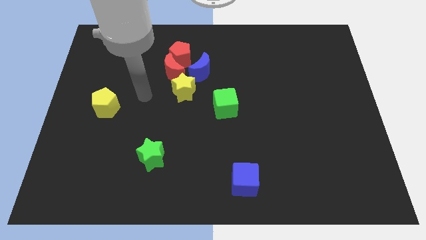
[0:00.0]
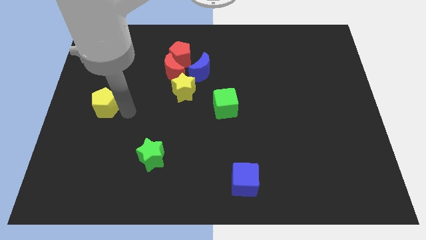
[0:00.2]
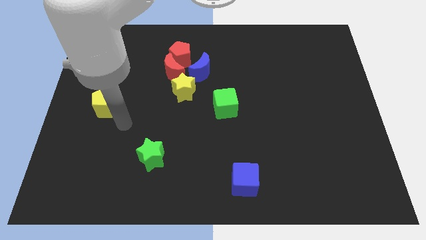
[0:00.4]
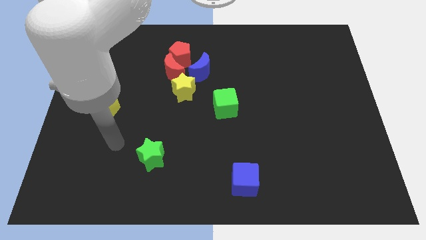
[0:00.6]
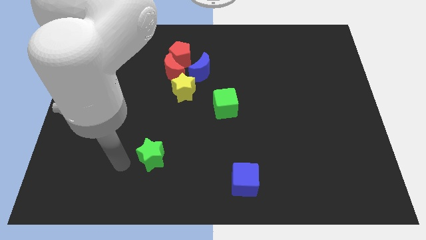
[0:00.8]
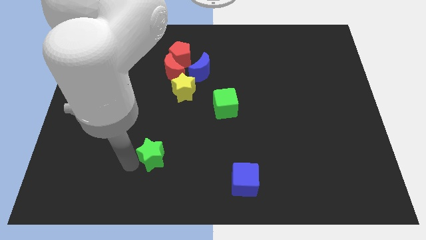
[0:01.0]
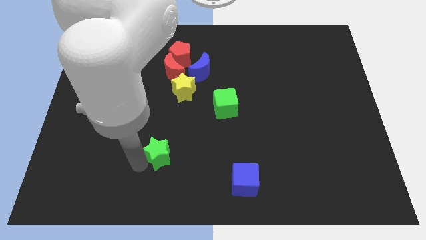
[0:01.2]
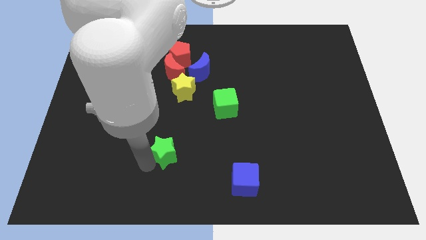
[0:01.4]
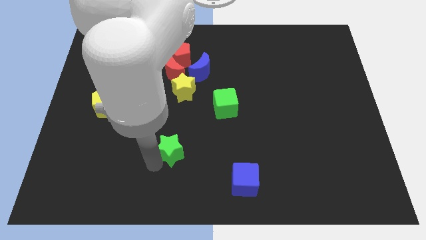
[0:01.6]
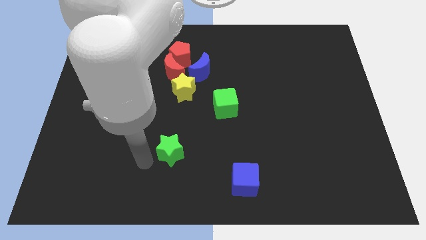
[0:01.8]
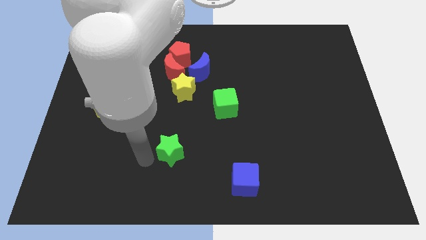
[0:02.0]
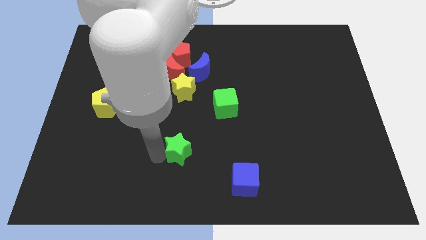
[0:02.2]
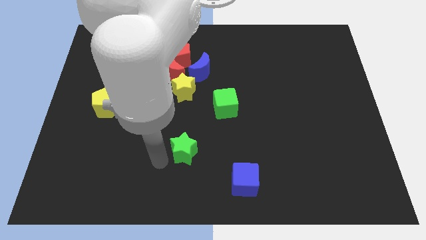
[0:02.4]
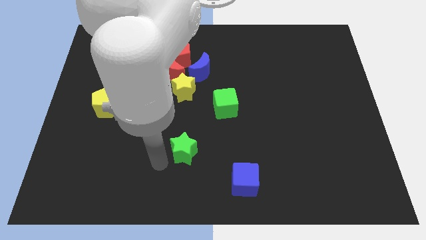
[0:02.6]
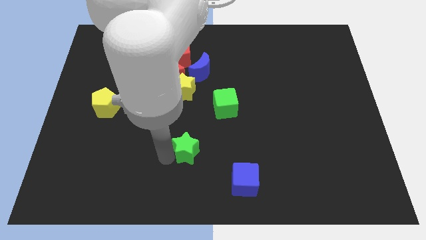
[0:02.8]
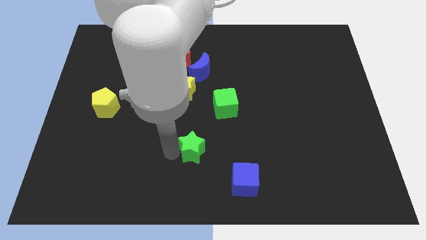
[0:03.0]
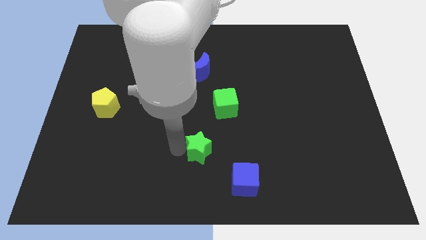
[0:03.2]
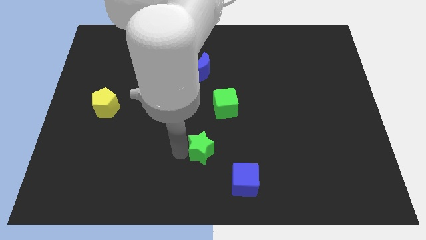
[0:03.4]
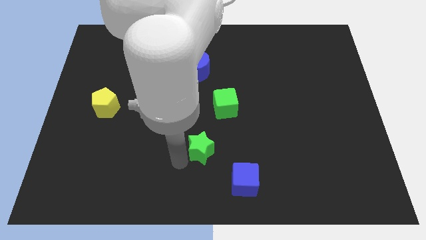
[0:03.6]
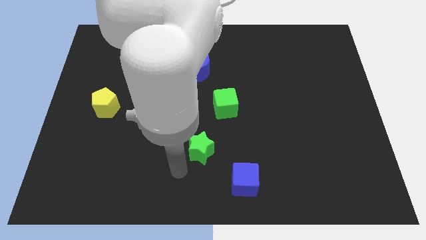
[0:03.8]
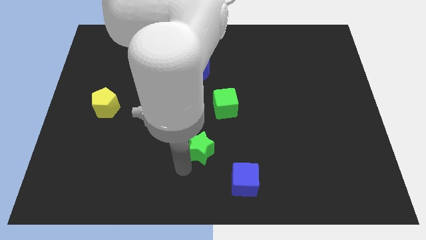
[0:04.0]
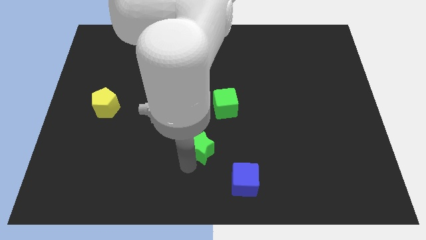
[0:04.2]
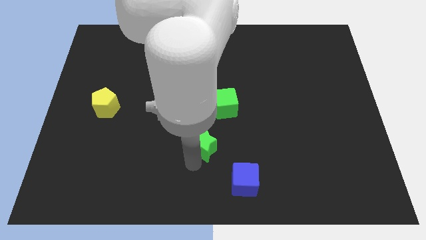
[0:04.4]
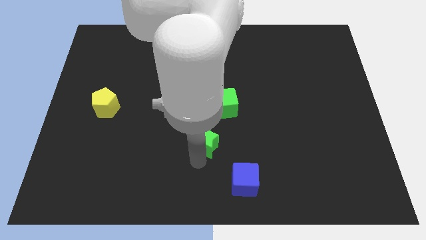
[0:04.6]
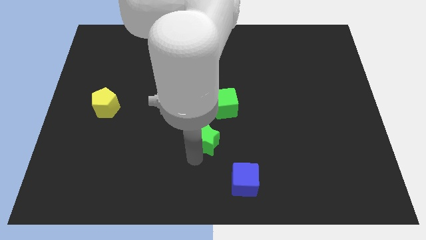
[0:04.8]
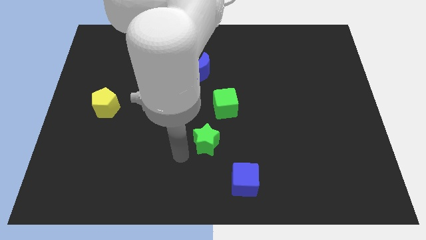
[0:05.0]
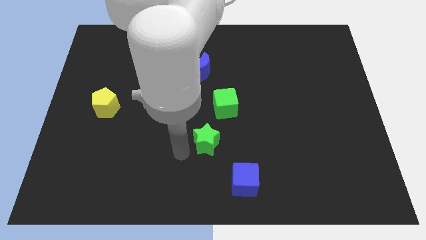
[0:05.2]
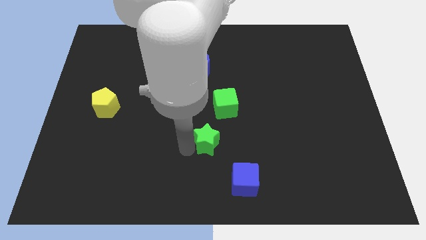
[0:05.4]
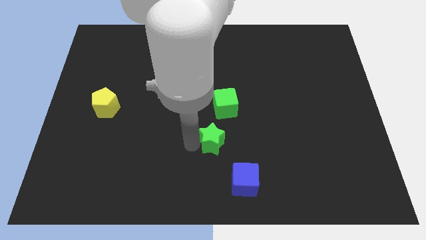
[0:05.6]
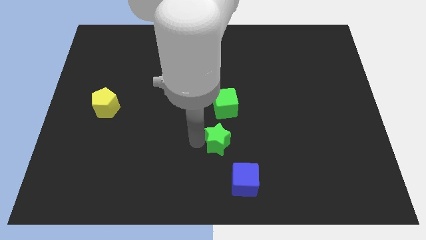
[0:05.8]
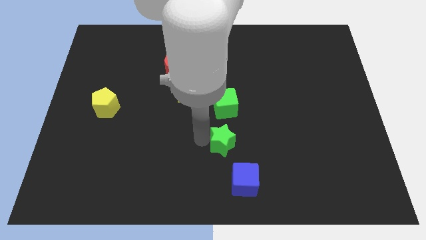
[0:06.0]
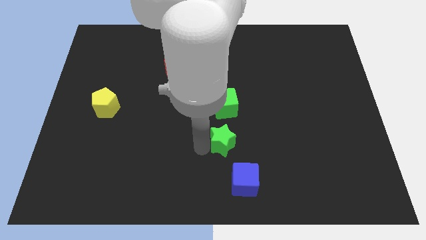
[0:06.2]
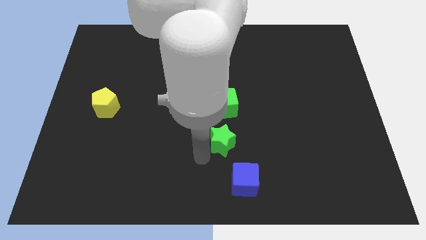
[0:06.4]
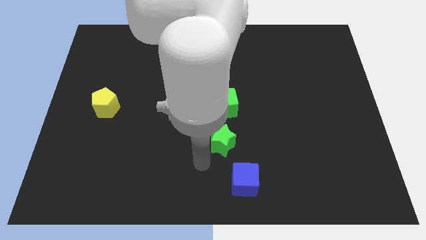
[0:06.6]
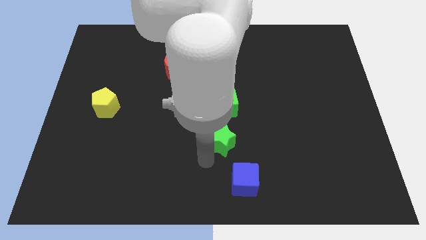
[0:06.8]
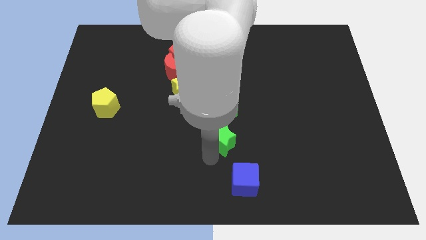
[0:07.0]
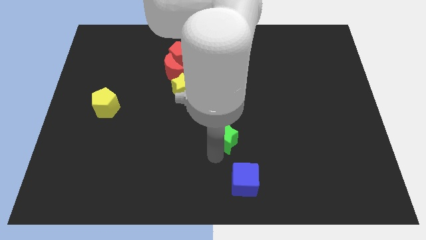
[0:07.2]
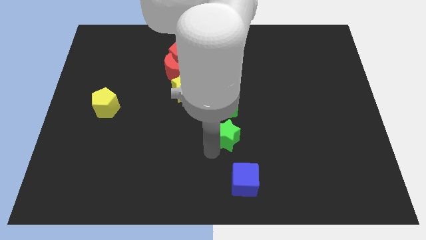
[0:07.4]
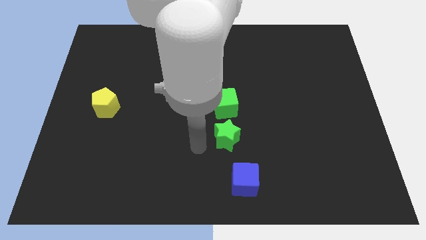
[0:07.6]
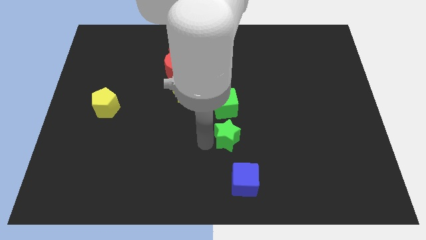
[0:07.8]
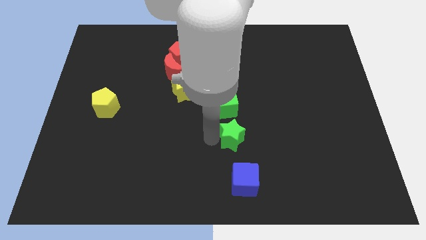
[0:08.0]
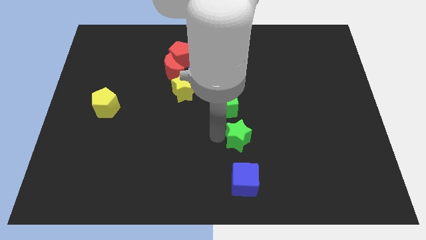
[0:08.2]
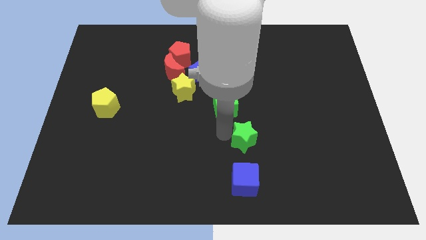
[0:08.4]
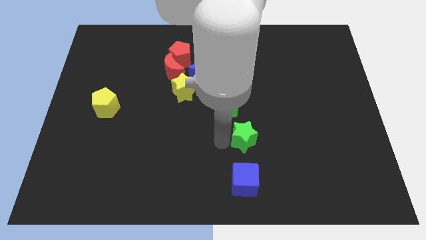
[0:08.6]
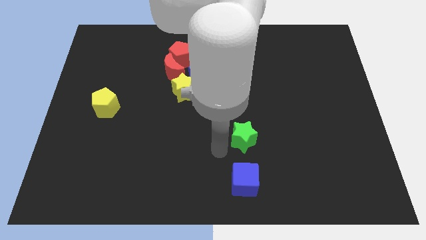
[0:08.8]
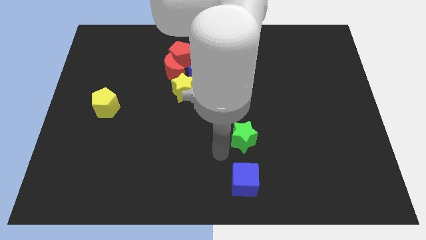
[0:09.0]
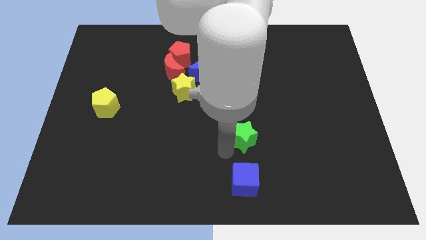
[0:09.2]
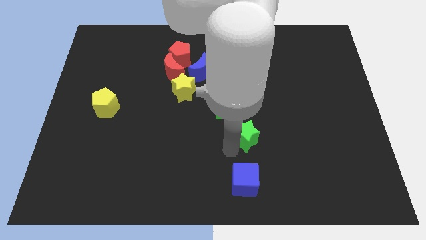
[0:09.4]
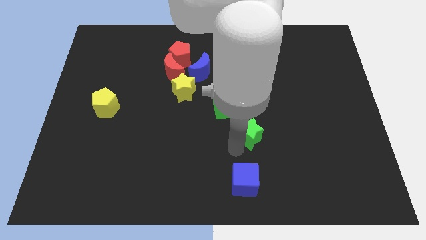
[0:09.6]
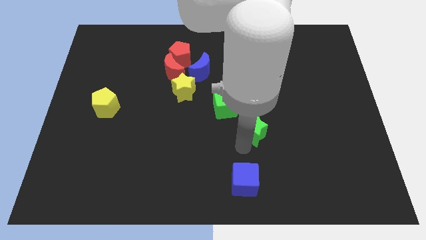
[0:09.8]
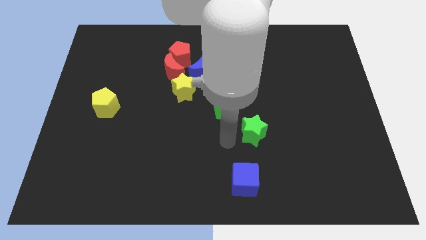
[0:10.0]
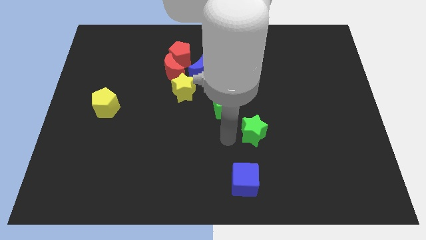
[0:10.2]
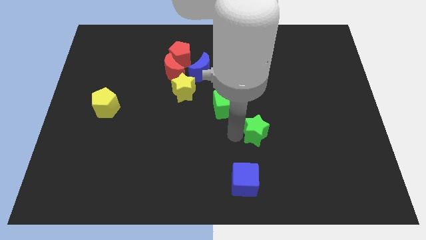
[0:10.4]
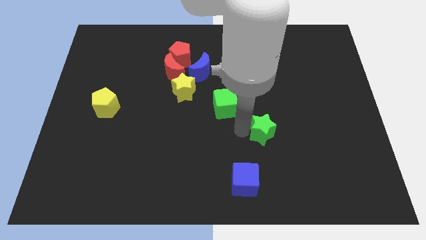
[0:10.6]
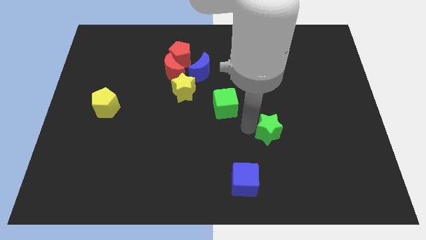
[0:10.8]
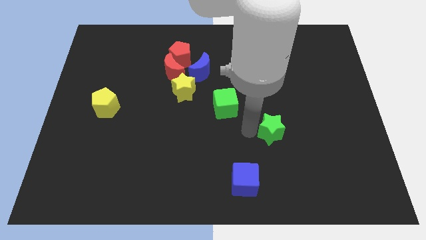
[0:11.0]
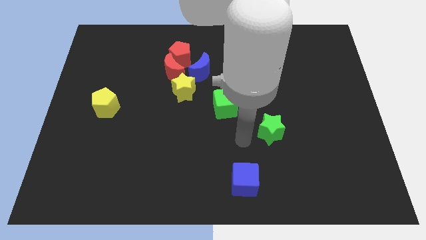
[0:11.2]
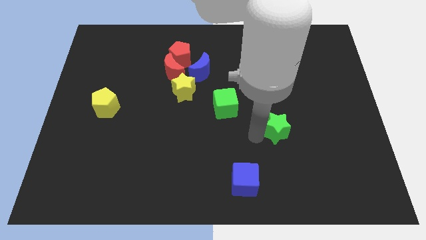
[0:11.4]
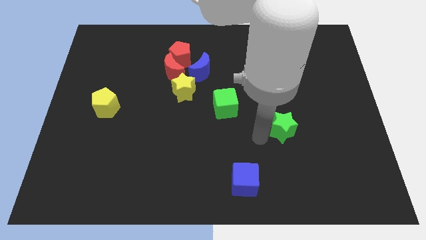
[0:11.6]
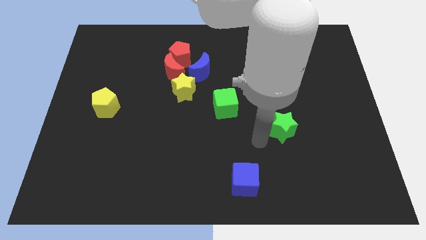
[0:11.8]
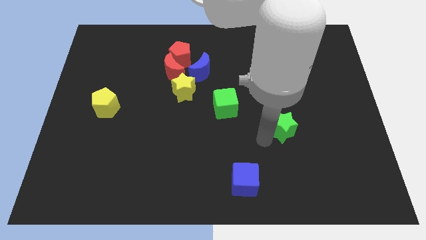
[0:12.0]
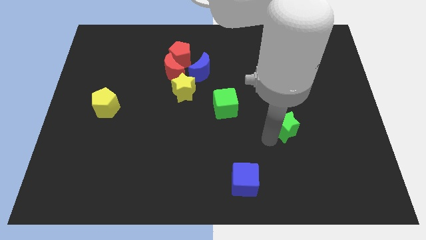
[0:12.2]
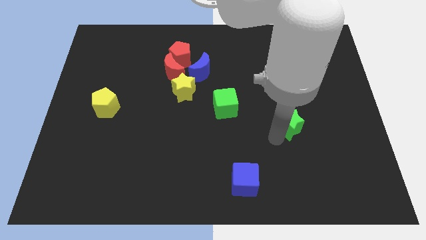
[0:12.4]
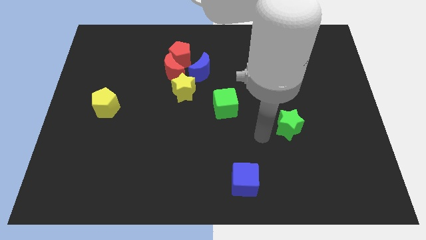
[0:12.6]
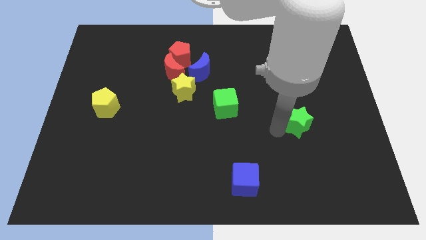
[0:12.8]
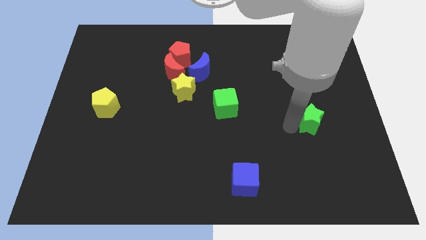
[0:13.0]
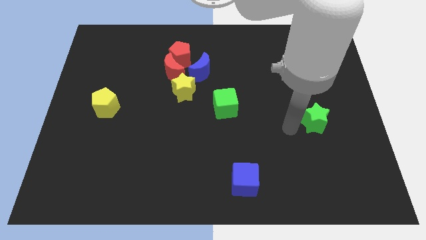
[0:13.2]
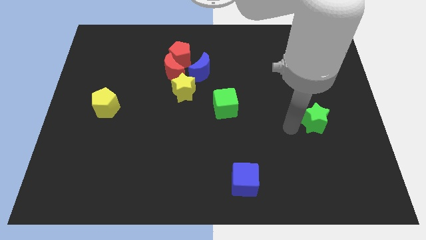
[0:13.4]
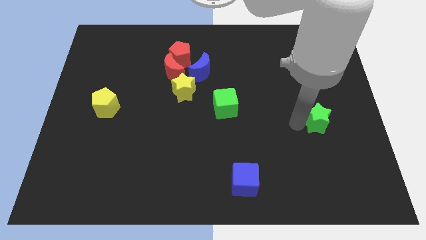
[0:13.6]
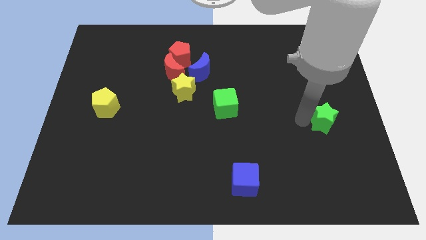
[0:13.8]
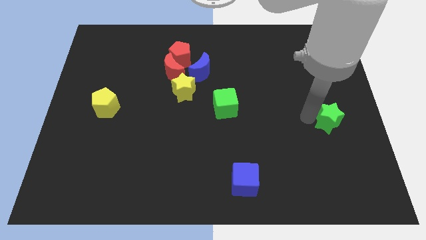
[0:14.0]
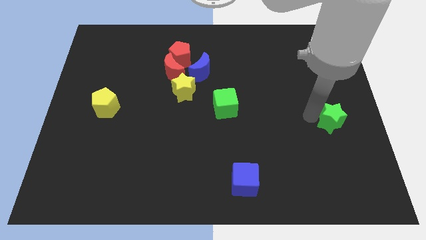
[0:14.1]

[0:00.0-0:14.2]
move the green star to the right side of the board

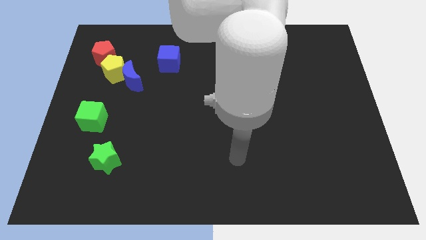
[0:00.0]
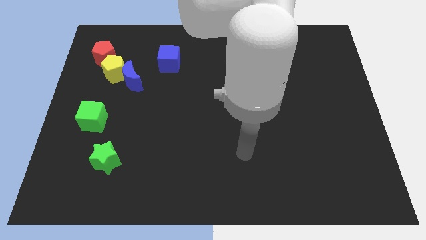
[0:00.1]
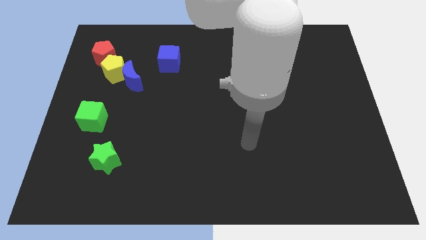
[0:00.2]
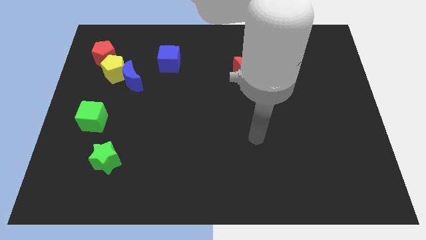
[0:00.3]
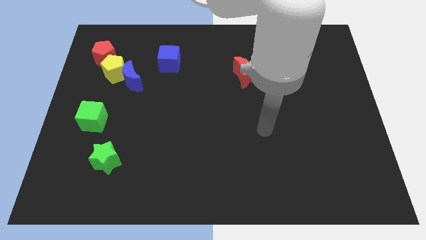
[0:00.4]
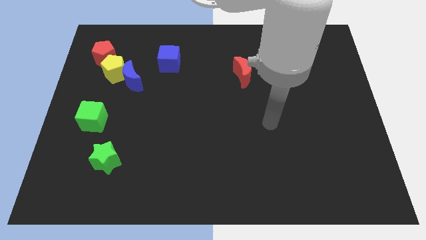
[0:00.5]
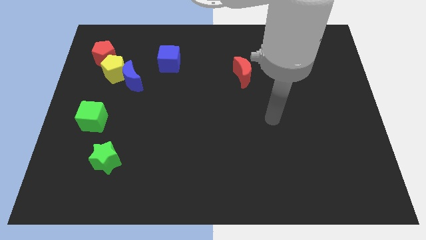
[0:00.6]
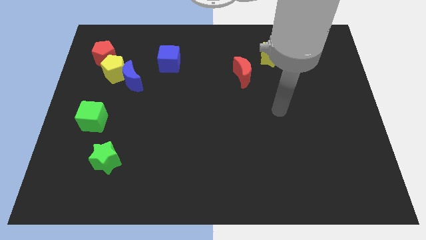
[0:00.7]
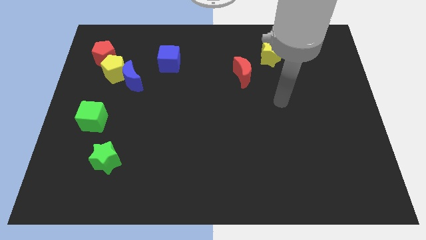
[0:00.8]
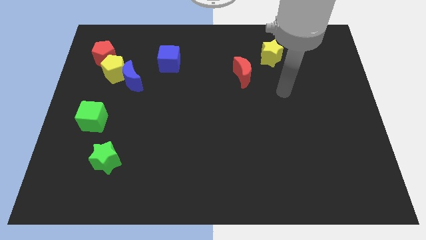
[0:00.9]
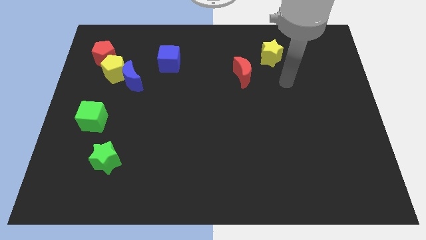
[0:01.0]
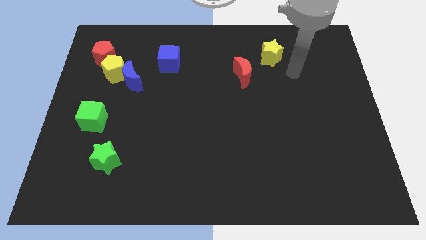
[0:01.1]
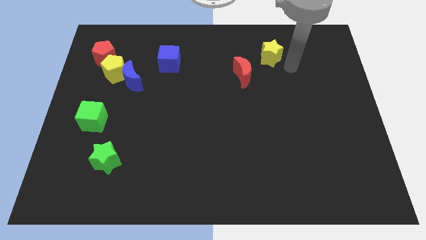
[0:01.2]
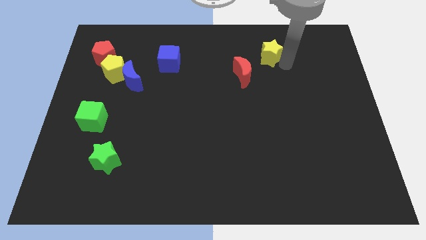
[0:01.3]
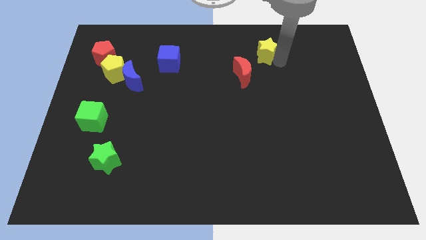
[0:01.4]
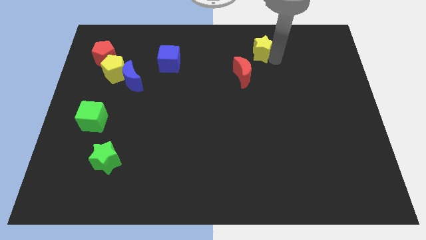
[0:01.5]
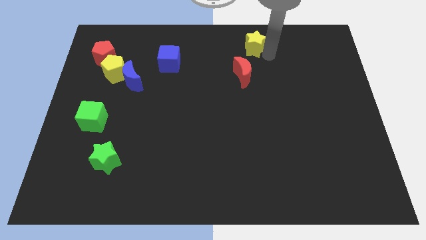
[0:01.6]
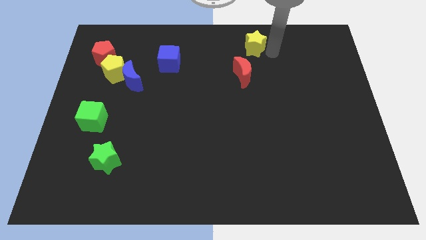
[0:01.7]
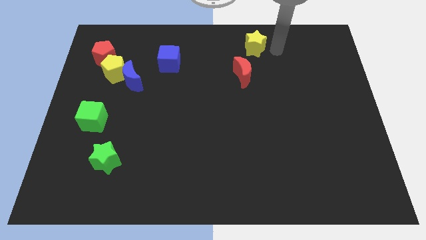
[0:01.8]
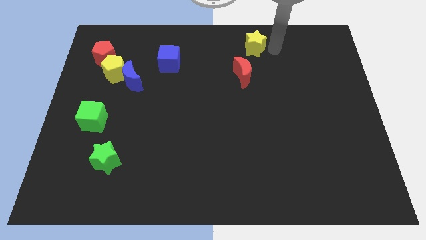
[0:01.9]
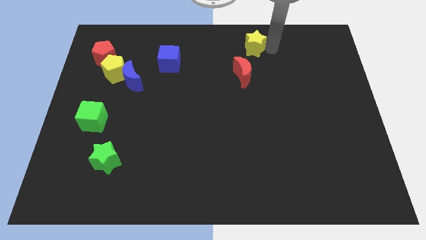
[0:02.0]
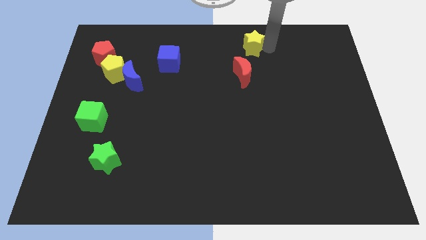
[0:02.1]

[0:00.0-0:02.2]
slide the yellow star to the top
